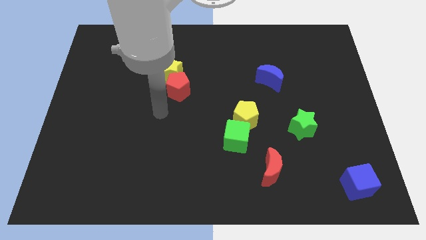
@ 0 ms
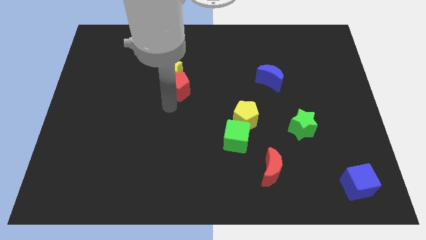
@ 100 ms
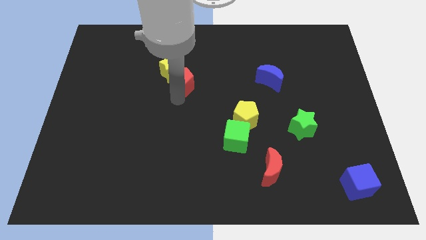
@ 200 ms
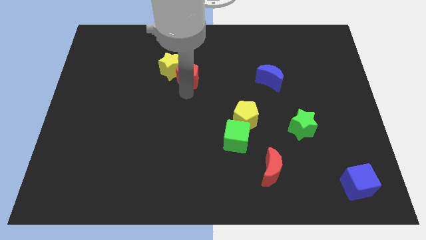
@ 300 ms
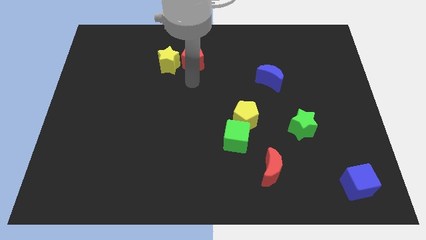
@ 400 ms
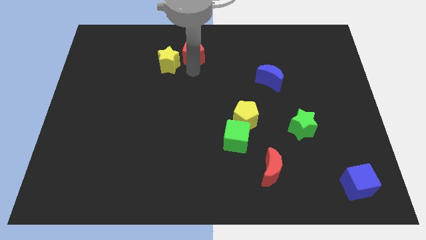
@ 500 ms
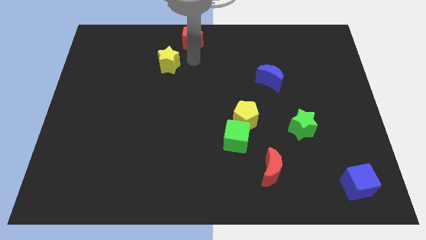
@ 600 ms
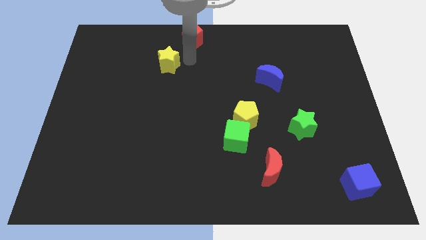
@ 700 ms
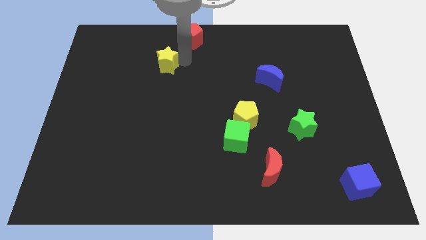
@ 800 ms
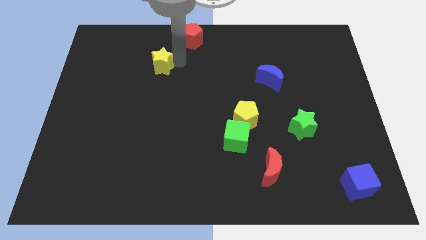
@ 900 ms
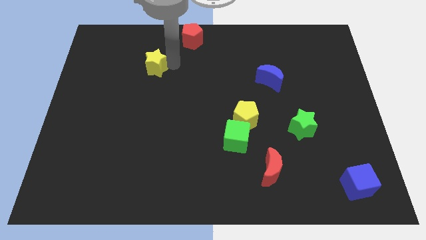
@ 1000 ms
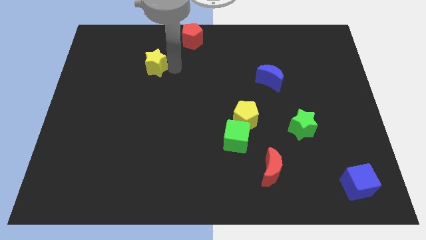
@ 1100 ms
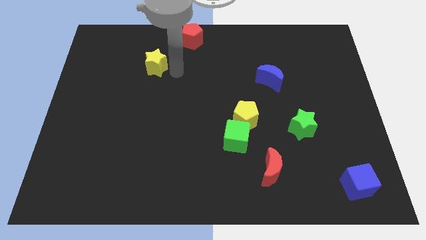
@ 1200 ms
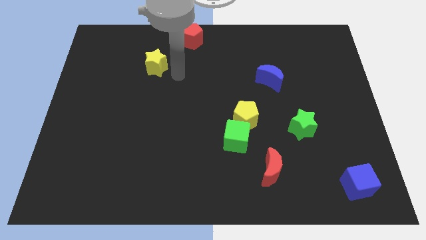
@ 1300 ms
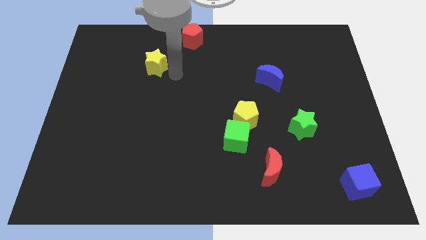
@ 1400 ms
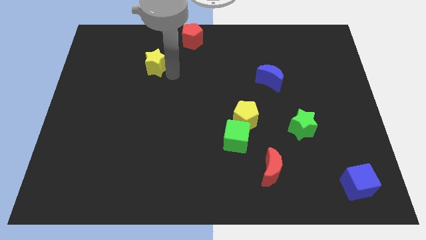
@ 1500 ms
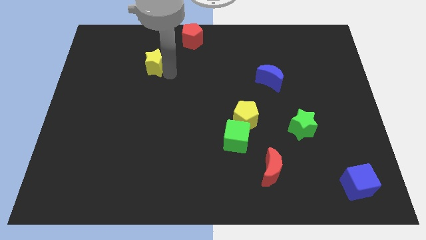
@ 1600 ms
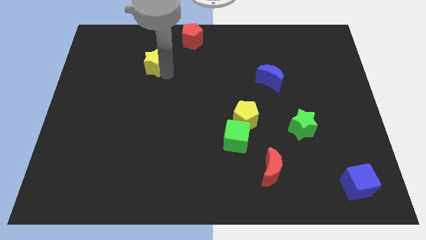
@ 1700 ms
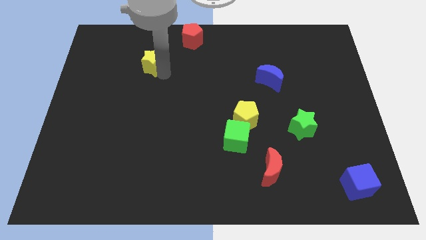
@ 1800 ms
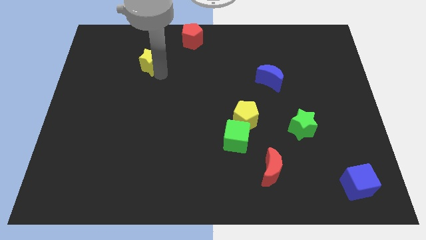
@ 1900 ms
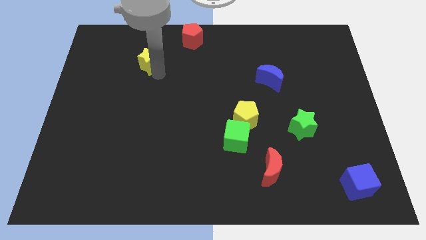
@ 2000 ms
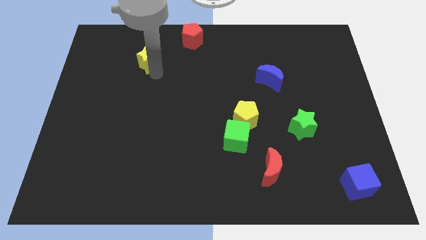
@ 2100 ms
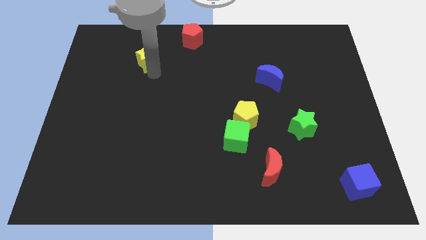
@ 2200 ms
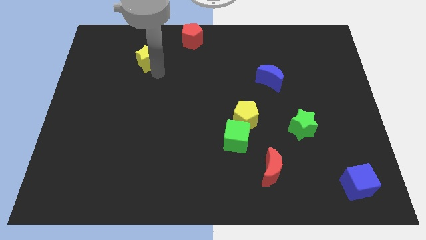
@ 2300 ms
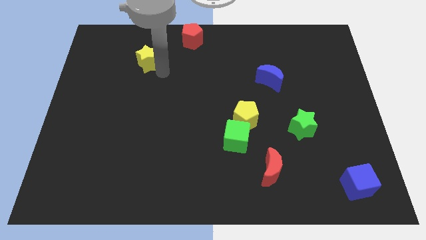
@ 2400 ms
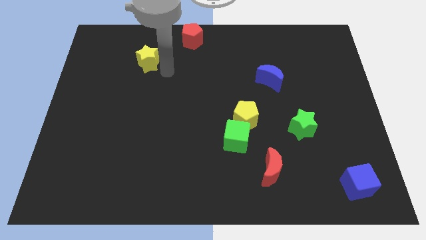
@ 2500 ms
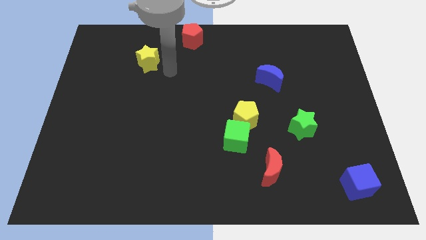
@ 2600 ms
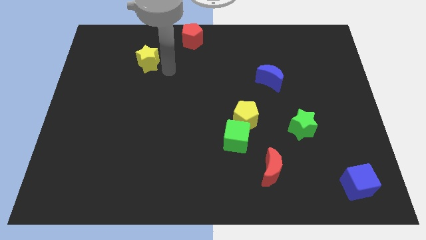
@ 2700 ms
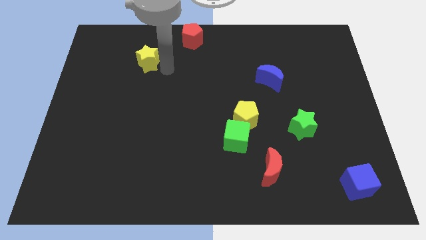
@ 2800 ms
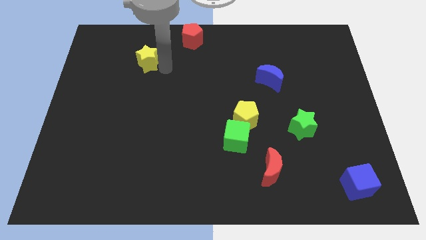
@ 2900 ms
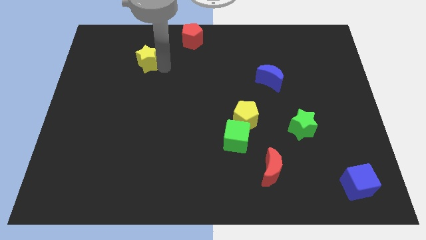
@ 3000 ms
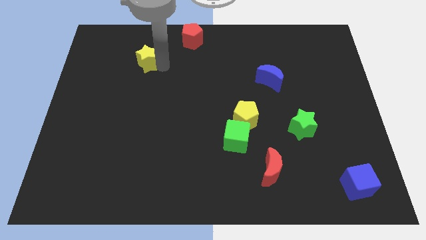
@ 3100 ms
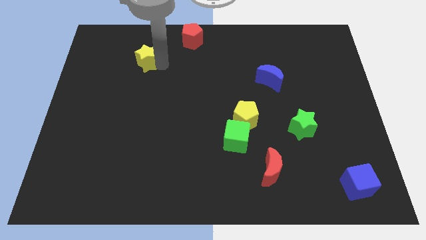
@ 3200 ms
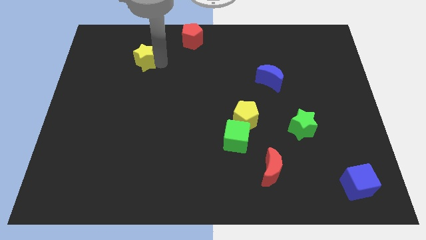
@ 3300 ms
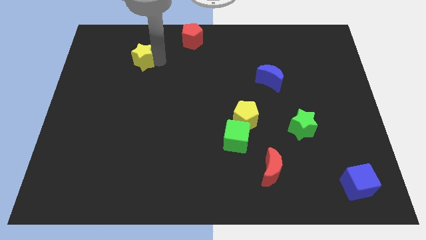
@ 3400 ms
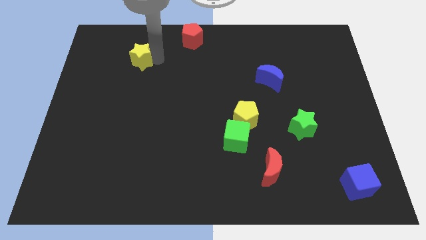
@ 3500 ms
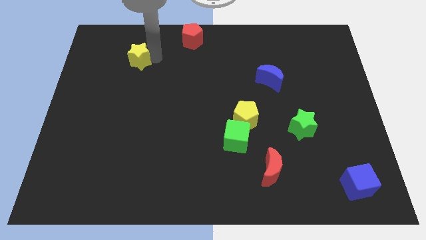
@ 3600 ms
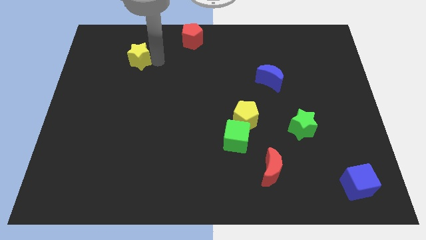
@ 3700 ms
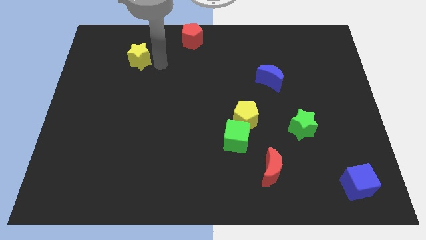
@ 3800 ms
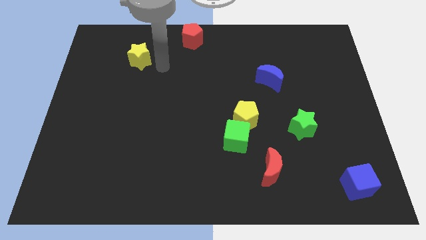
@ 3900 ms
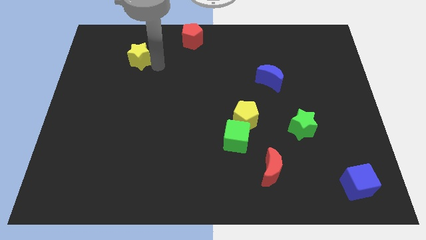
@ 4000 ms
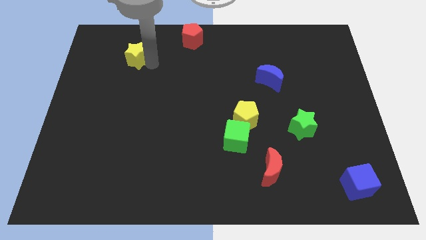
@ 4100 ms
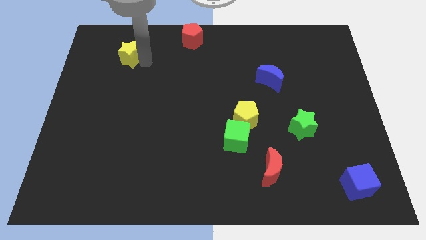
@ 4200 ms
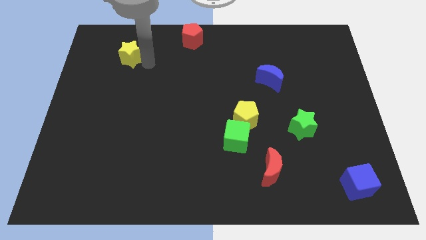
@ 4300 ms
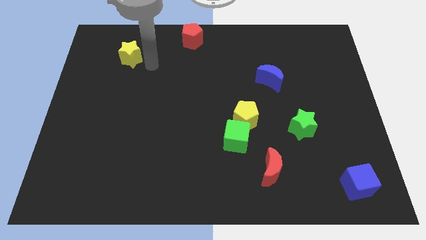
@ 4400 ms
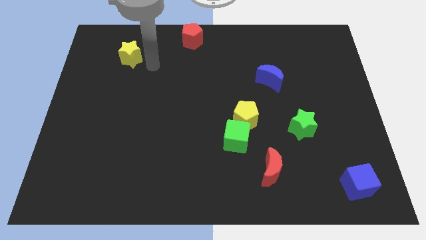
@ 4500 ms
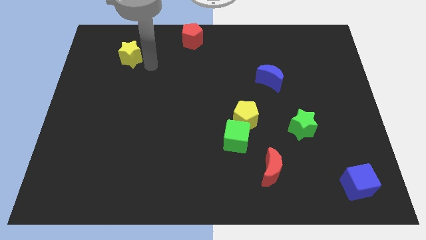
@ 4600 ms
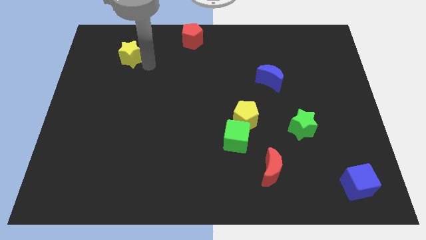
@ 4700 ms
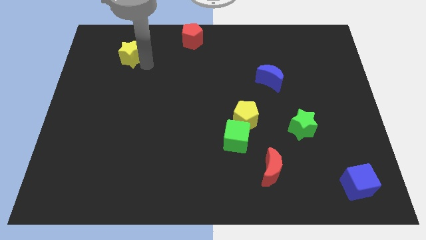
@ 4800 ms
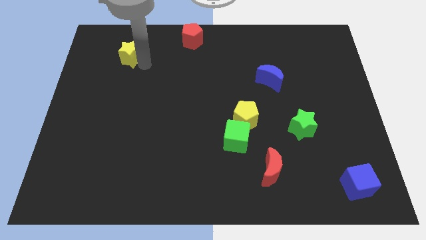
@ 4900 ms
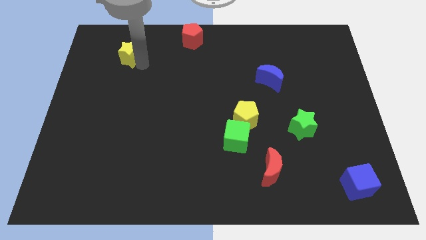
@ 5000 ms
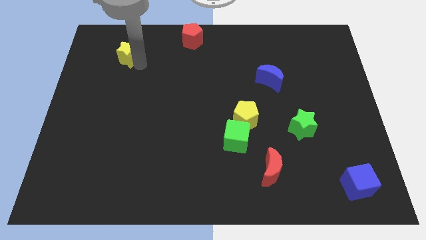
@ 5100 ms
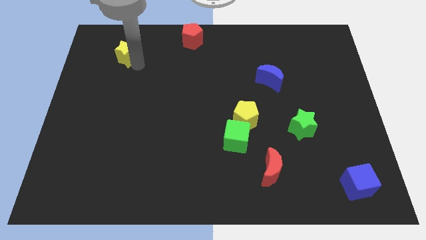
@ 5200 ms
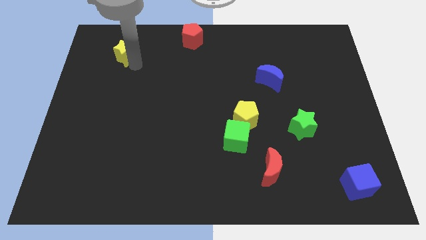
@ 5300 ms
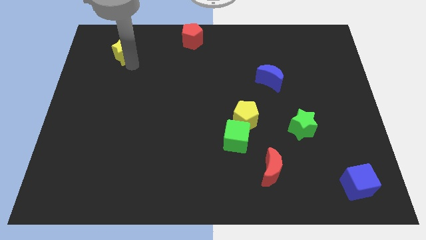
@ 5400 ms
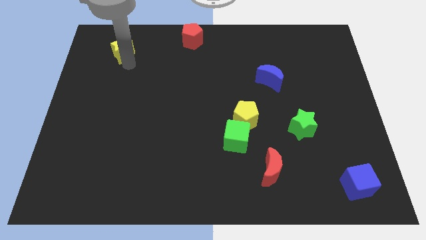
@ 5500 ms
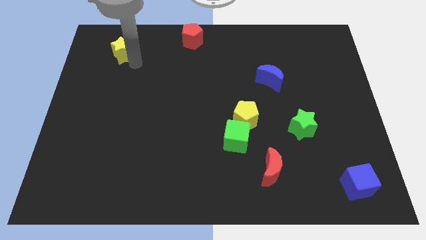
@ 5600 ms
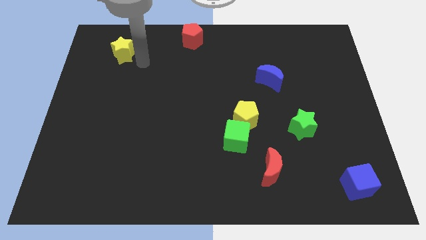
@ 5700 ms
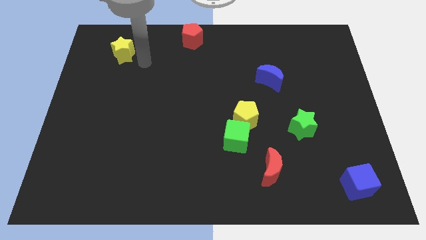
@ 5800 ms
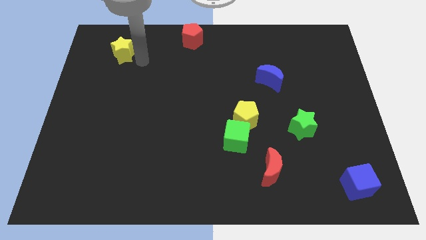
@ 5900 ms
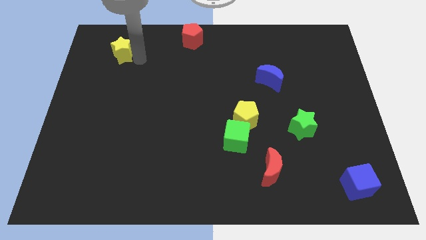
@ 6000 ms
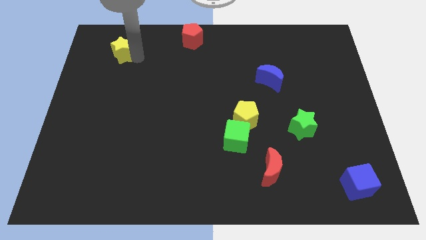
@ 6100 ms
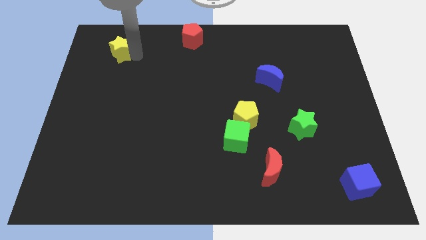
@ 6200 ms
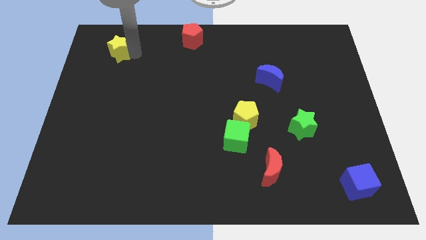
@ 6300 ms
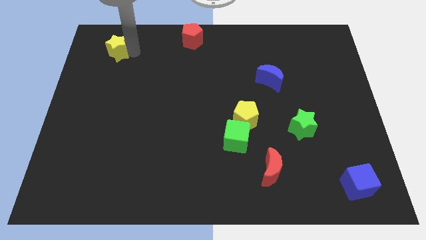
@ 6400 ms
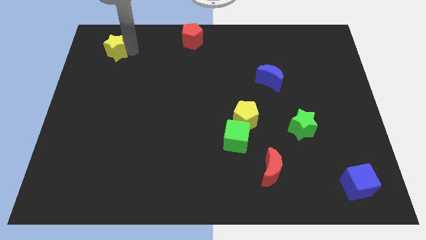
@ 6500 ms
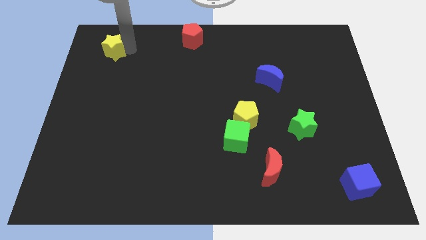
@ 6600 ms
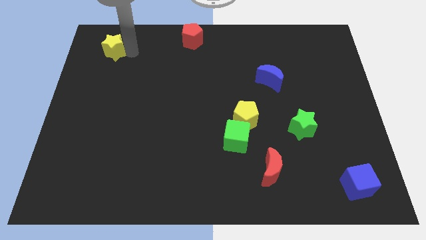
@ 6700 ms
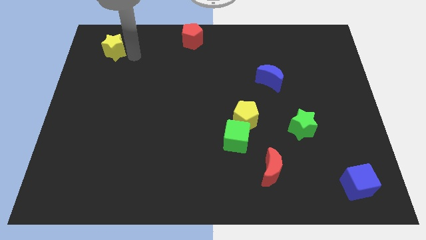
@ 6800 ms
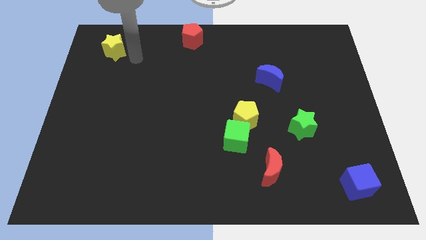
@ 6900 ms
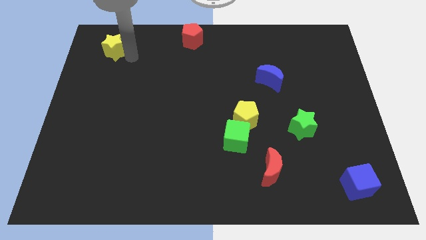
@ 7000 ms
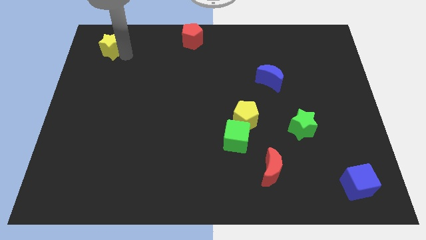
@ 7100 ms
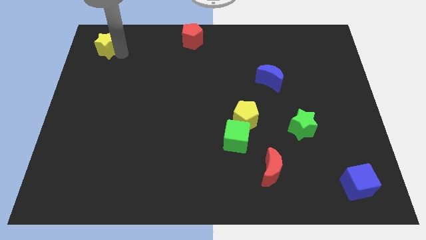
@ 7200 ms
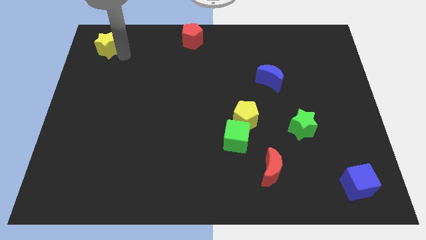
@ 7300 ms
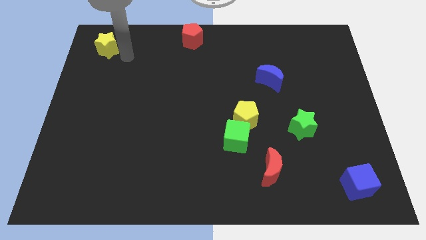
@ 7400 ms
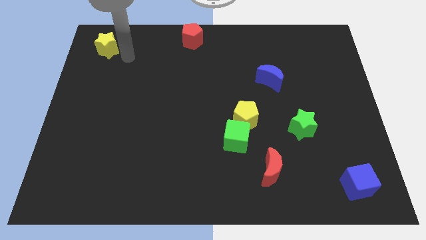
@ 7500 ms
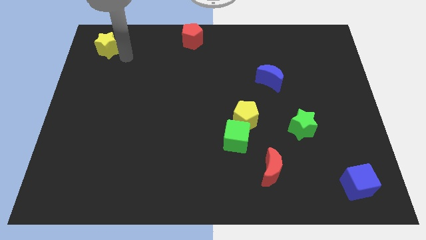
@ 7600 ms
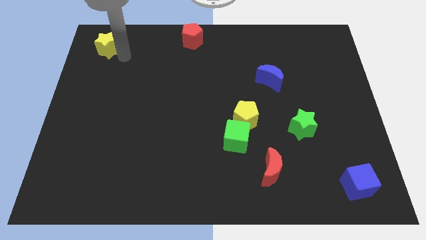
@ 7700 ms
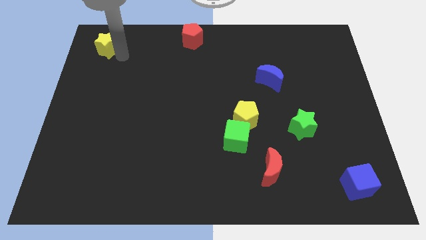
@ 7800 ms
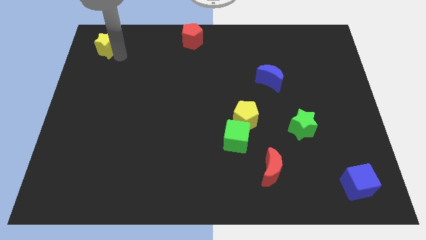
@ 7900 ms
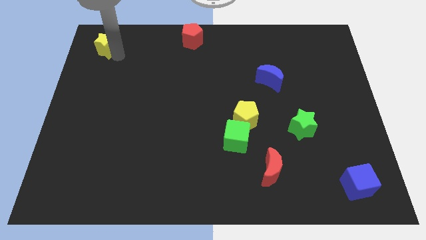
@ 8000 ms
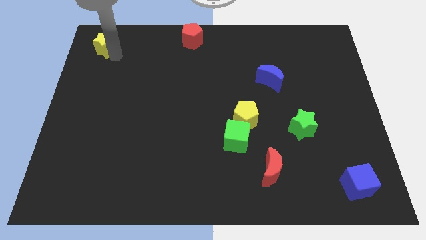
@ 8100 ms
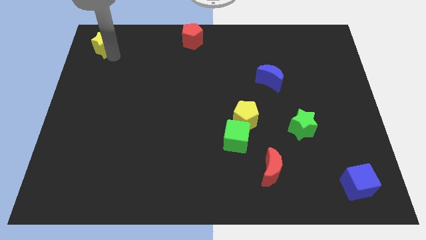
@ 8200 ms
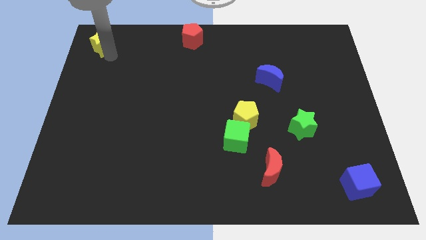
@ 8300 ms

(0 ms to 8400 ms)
move the yellow star to the top left
